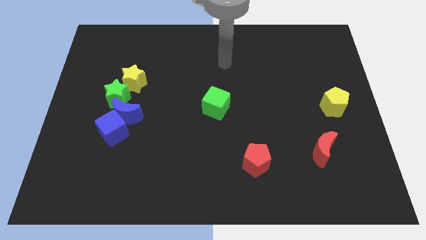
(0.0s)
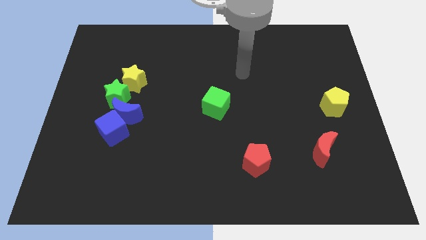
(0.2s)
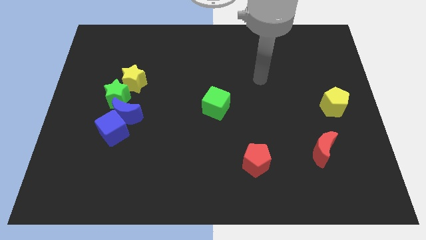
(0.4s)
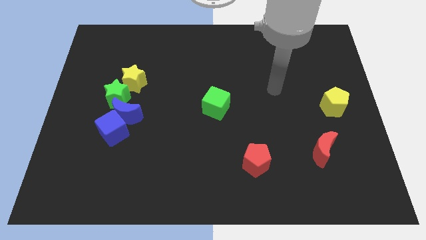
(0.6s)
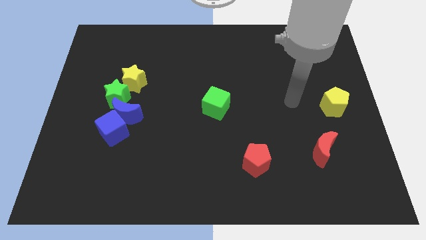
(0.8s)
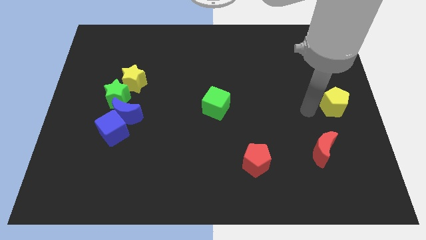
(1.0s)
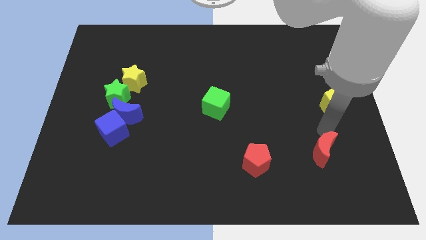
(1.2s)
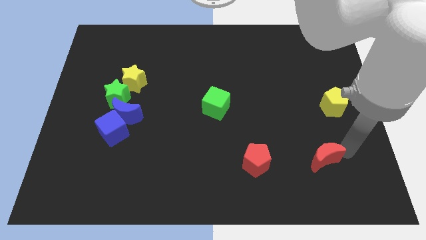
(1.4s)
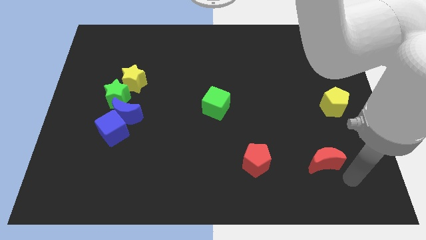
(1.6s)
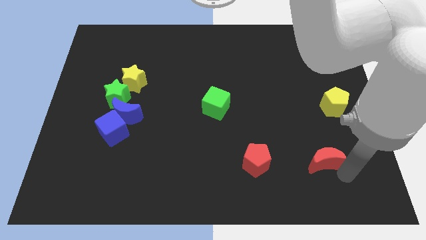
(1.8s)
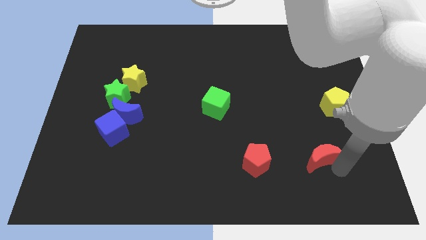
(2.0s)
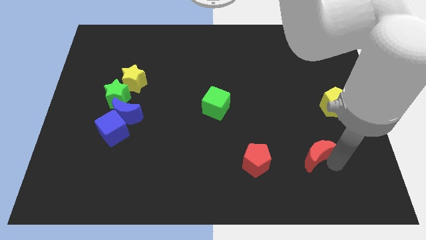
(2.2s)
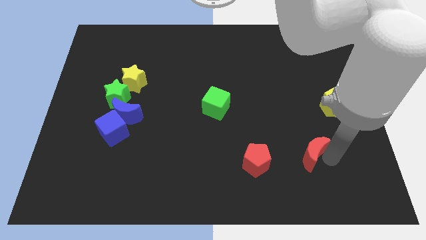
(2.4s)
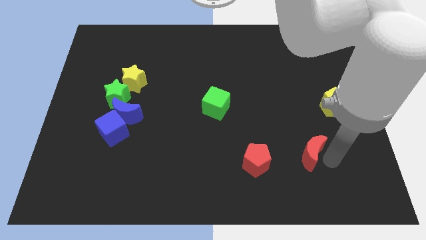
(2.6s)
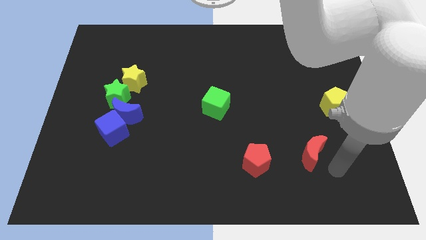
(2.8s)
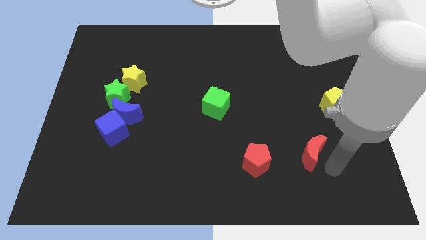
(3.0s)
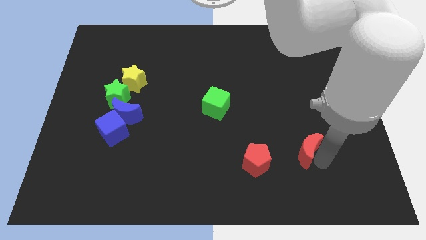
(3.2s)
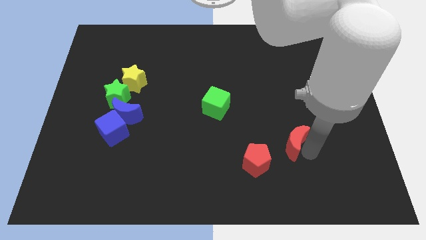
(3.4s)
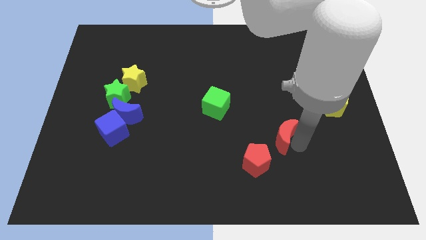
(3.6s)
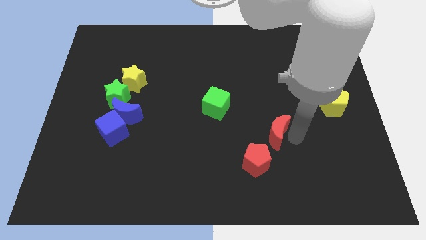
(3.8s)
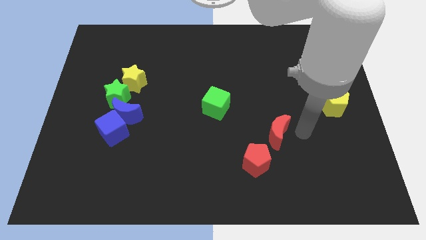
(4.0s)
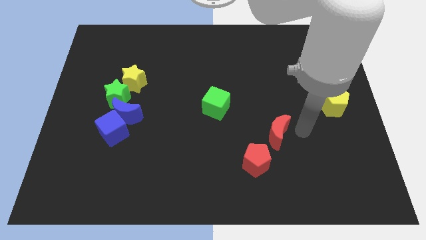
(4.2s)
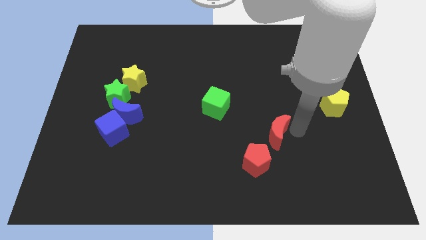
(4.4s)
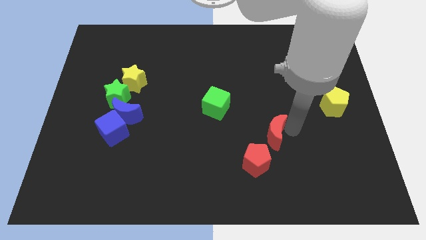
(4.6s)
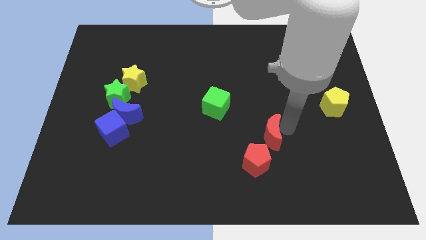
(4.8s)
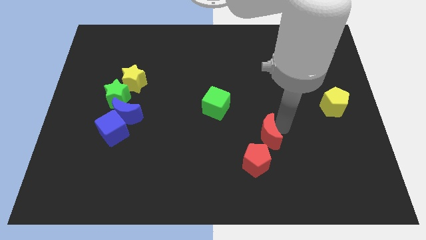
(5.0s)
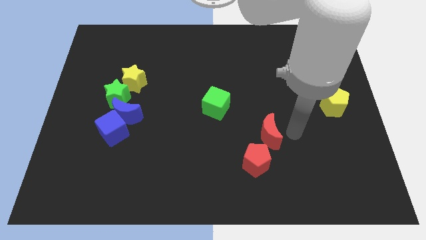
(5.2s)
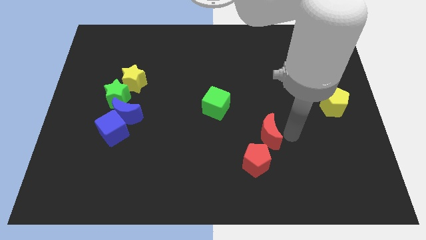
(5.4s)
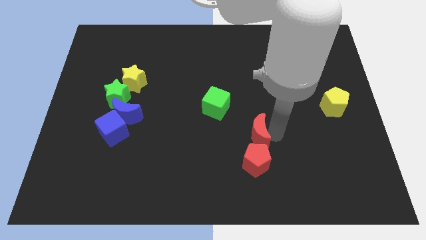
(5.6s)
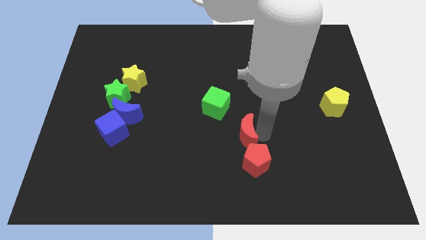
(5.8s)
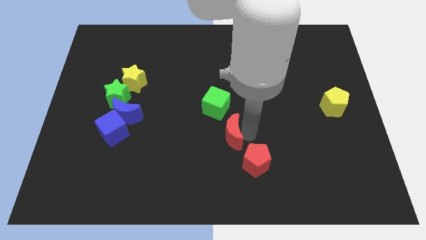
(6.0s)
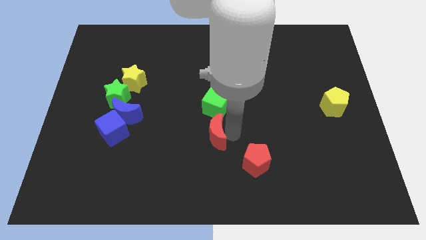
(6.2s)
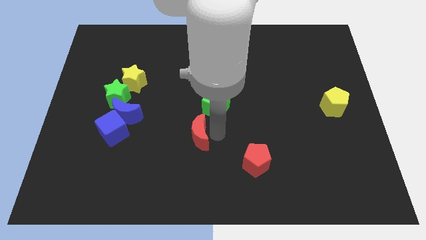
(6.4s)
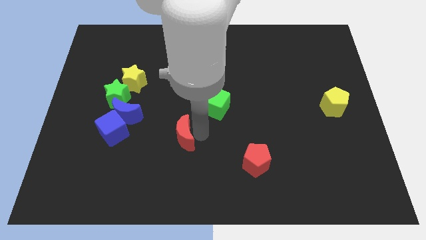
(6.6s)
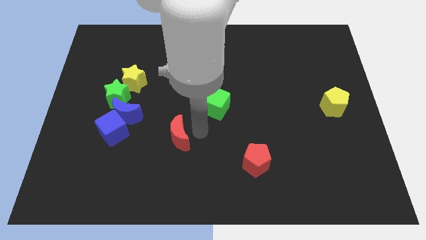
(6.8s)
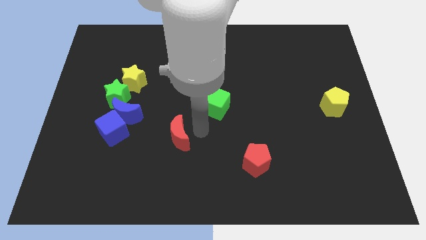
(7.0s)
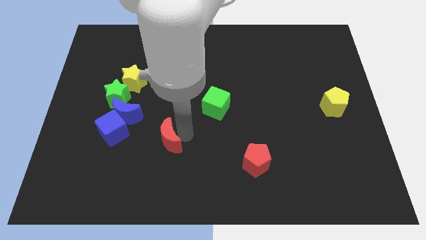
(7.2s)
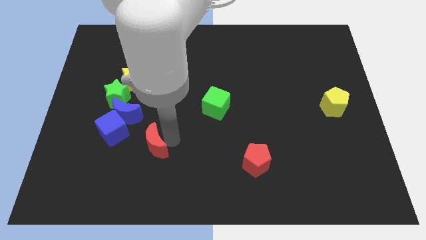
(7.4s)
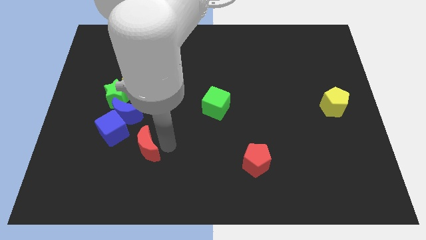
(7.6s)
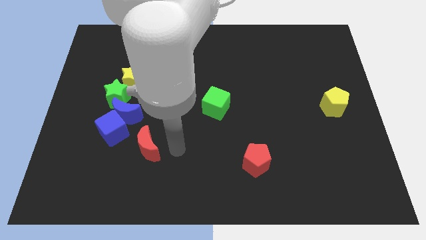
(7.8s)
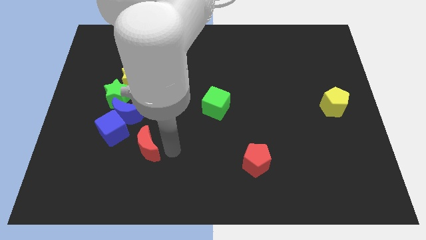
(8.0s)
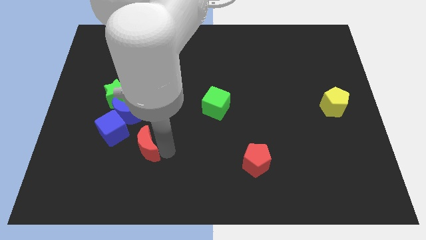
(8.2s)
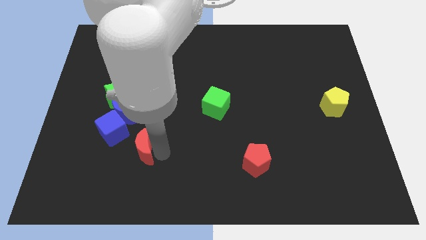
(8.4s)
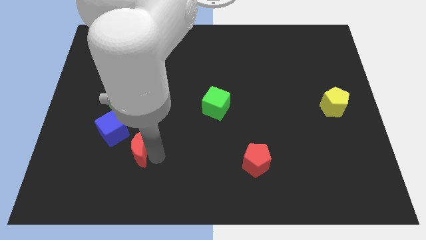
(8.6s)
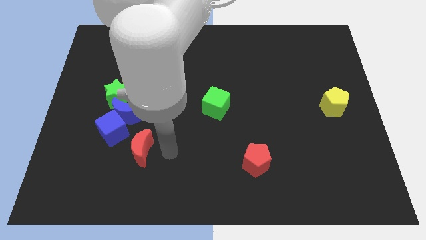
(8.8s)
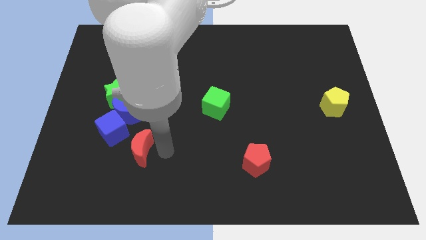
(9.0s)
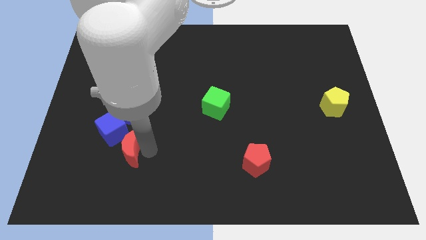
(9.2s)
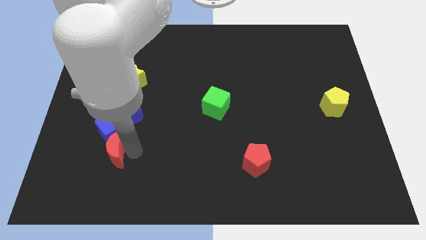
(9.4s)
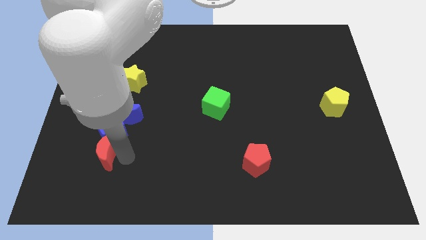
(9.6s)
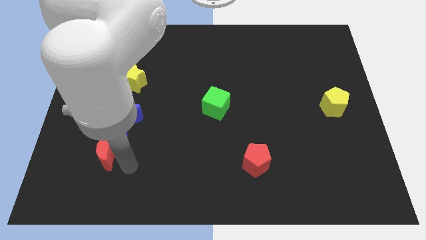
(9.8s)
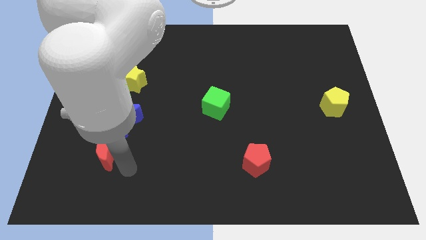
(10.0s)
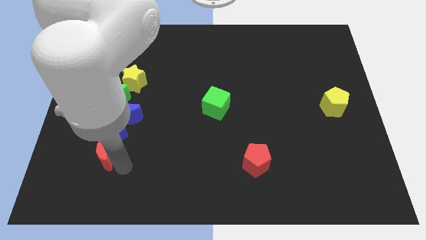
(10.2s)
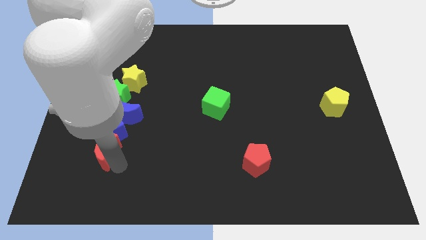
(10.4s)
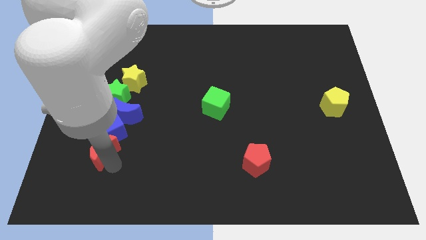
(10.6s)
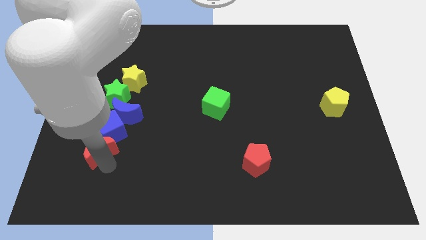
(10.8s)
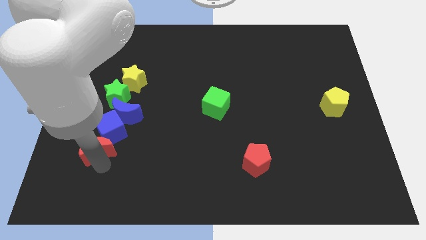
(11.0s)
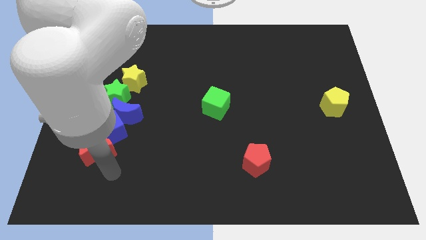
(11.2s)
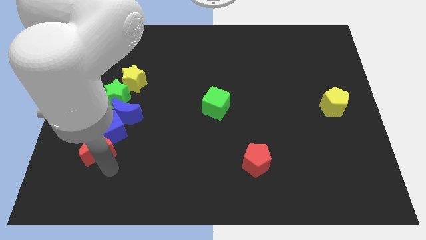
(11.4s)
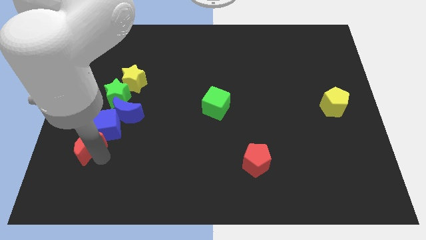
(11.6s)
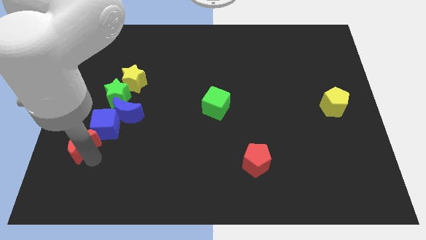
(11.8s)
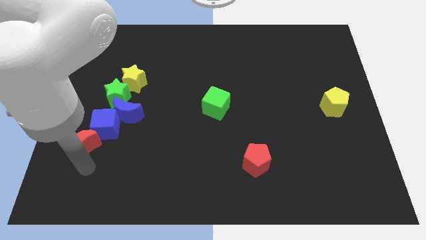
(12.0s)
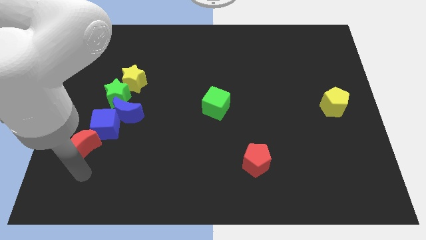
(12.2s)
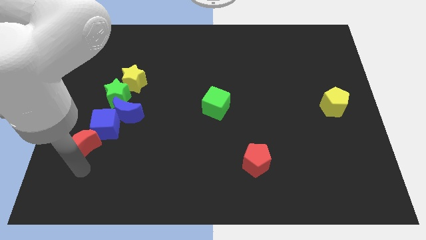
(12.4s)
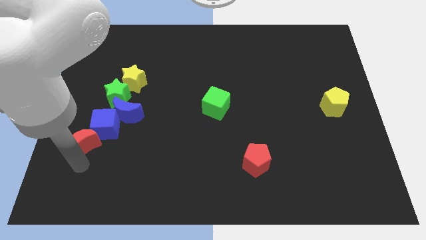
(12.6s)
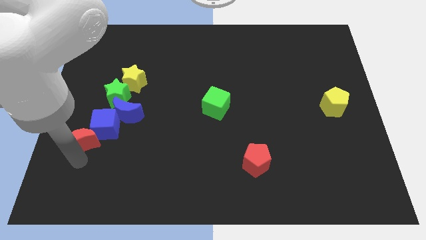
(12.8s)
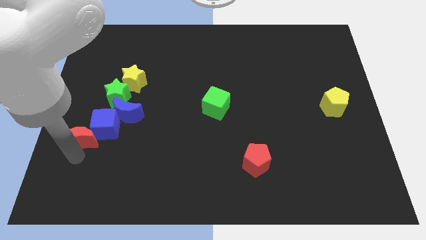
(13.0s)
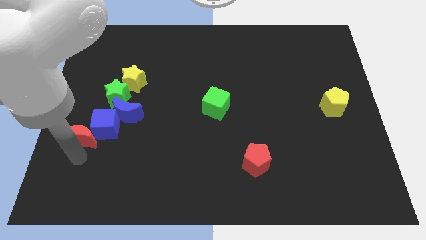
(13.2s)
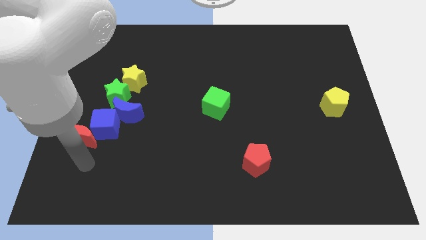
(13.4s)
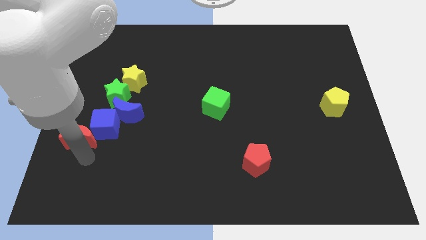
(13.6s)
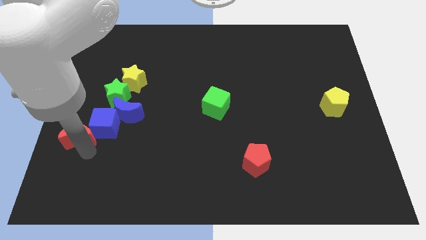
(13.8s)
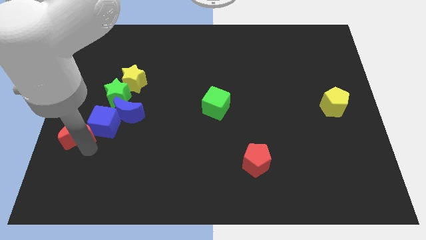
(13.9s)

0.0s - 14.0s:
move the red moon to the left side of the board

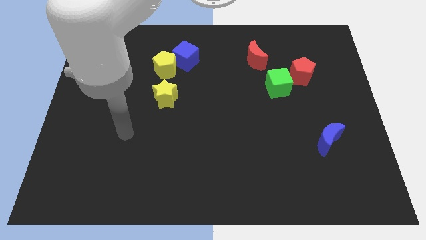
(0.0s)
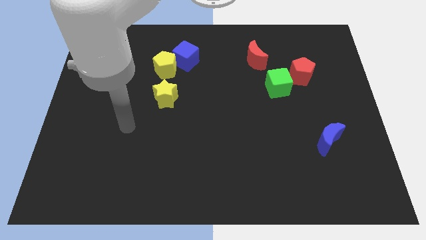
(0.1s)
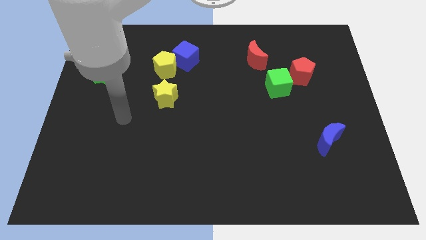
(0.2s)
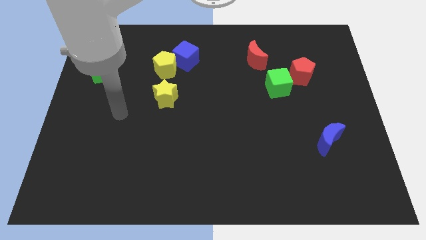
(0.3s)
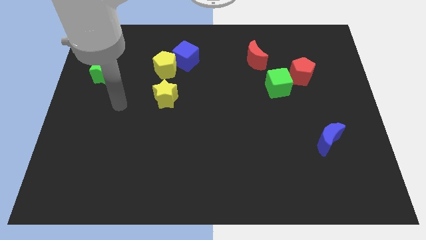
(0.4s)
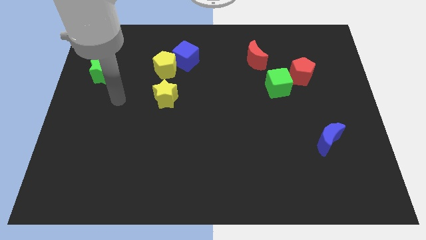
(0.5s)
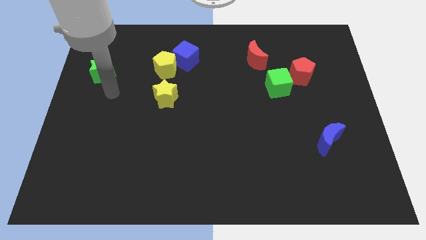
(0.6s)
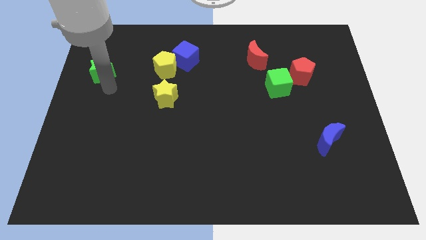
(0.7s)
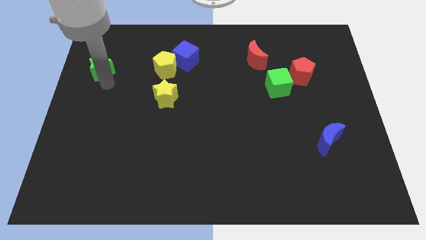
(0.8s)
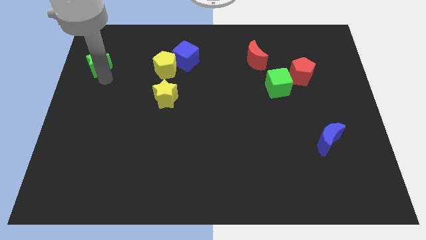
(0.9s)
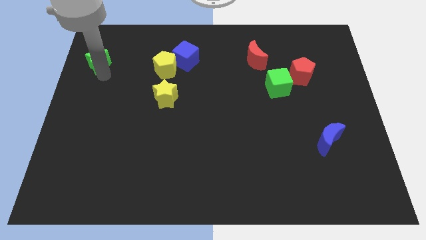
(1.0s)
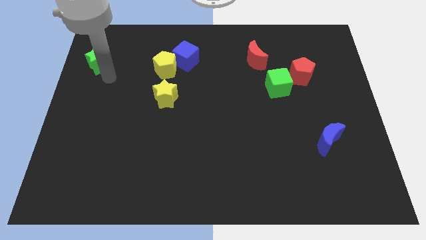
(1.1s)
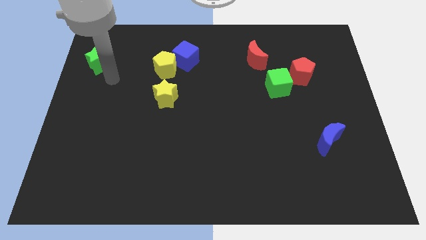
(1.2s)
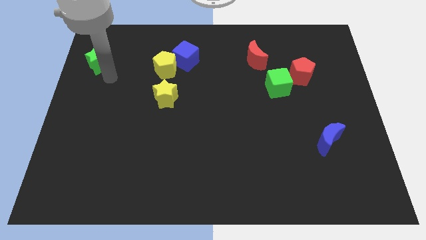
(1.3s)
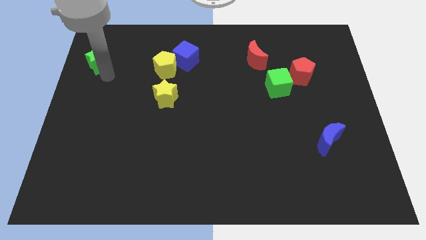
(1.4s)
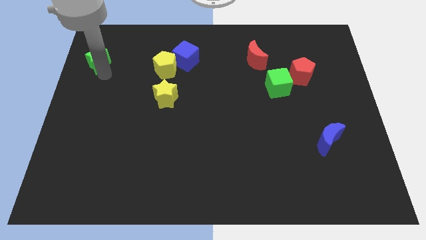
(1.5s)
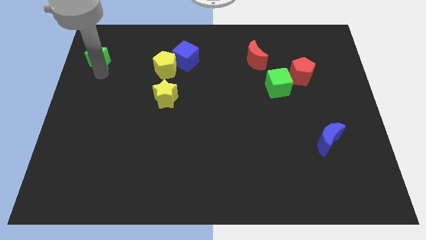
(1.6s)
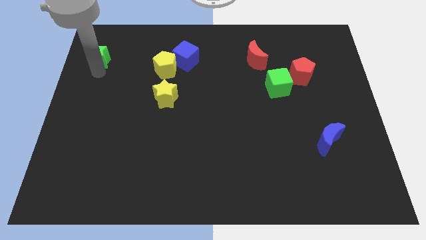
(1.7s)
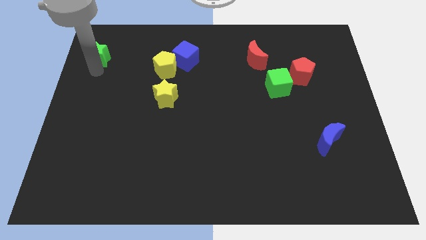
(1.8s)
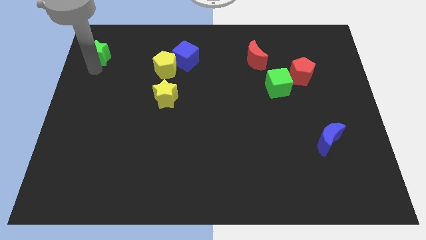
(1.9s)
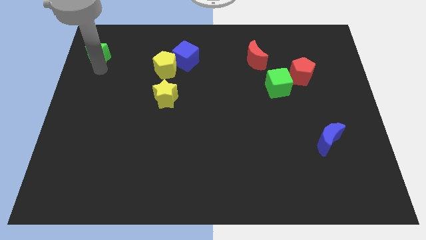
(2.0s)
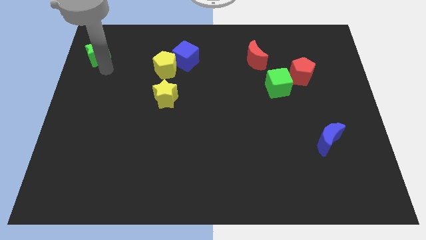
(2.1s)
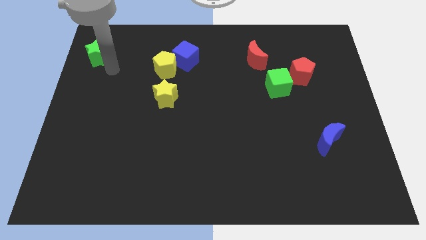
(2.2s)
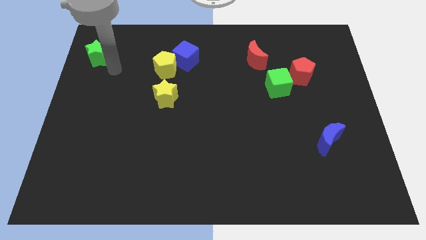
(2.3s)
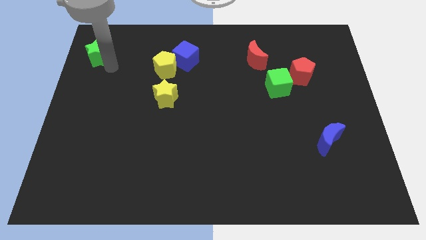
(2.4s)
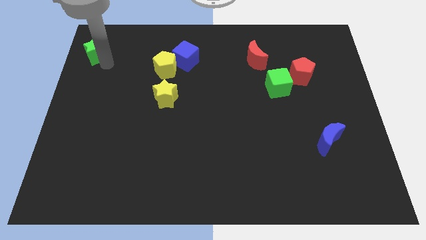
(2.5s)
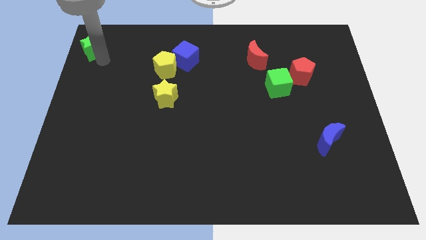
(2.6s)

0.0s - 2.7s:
put the green star to the top left of the board
